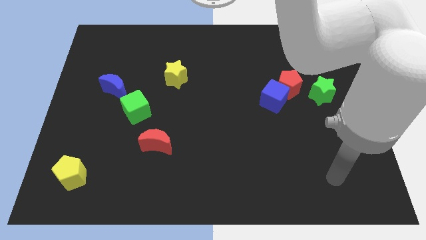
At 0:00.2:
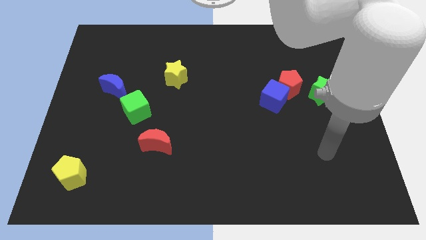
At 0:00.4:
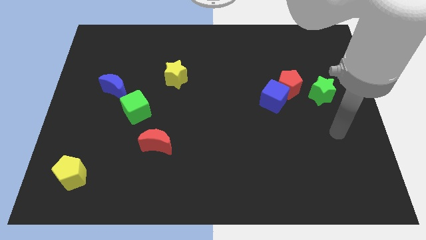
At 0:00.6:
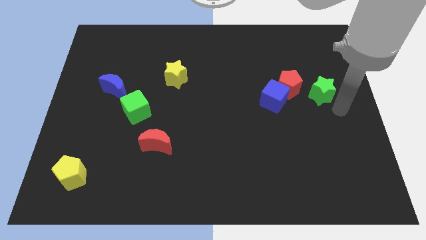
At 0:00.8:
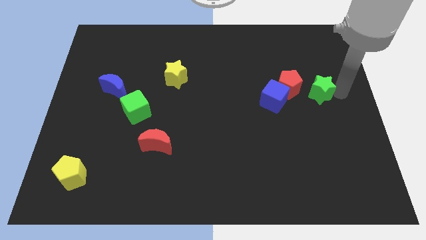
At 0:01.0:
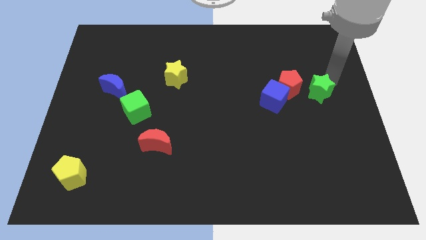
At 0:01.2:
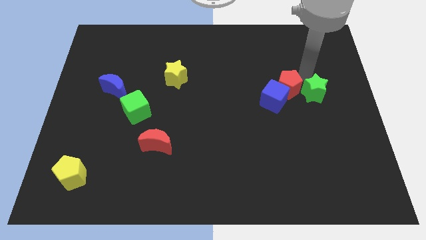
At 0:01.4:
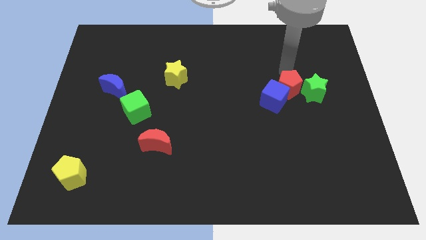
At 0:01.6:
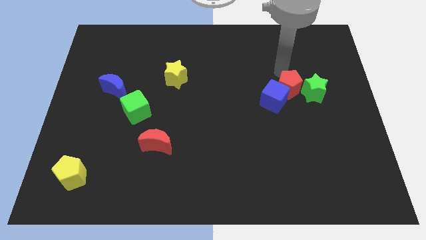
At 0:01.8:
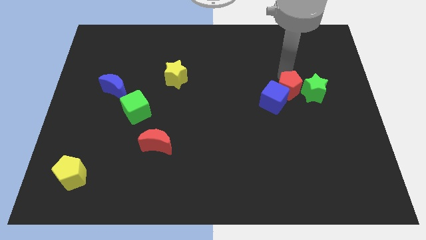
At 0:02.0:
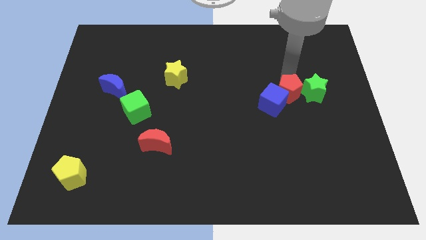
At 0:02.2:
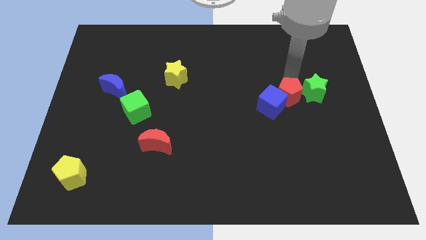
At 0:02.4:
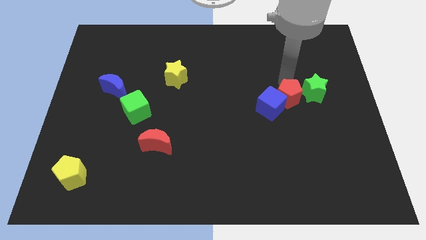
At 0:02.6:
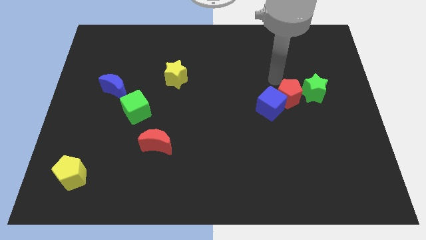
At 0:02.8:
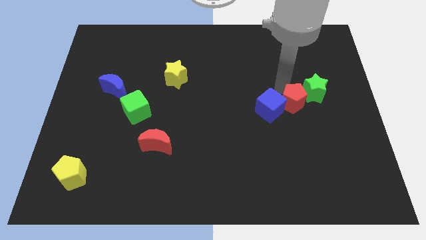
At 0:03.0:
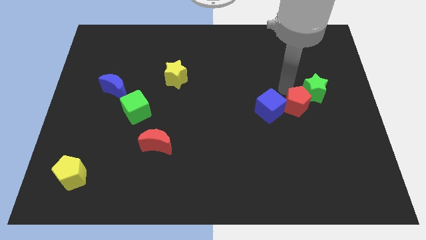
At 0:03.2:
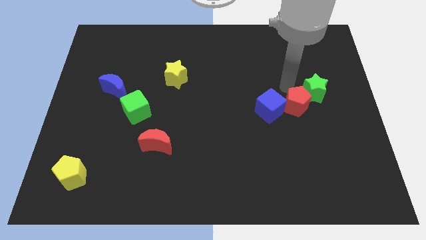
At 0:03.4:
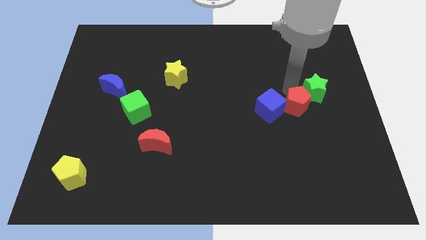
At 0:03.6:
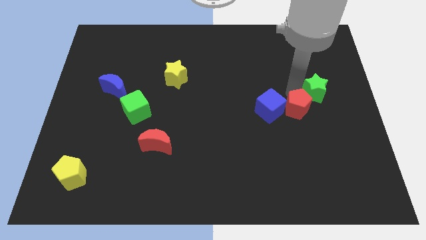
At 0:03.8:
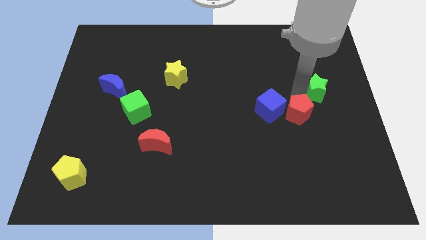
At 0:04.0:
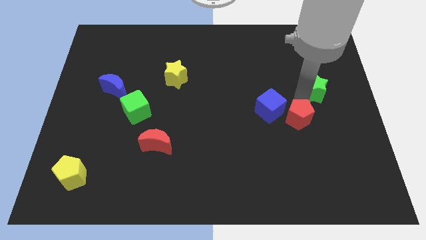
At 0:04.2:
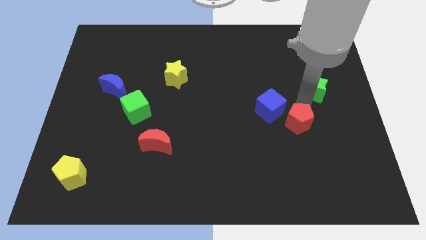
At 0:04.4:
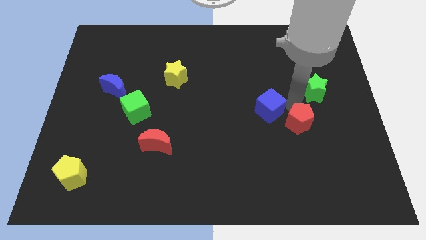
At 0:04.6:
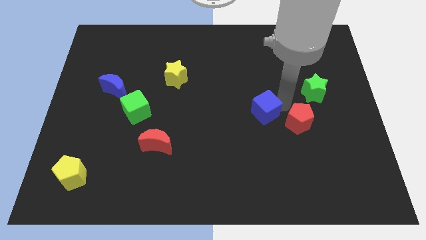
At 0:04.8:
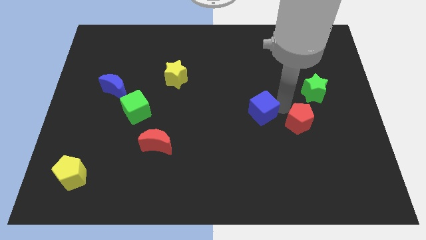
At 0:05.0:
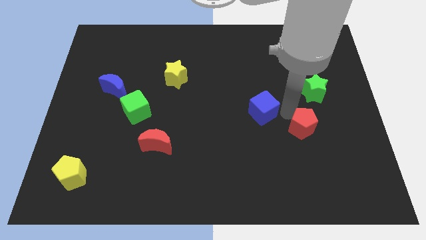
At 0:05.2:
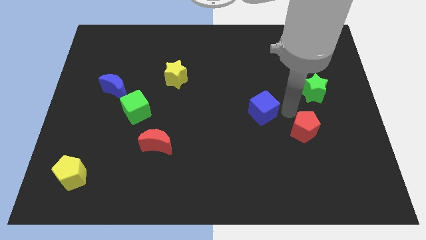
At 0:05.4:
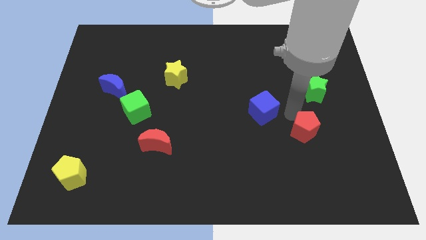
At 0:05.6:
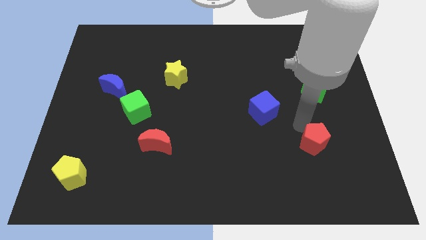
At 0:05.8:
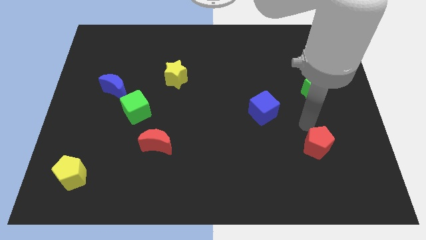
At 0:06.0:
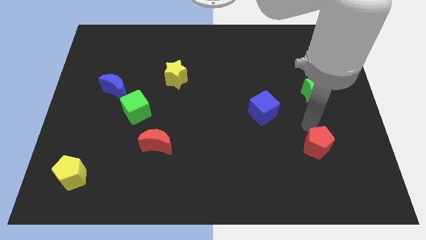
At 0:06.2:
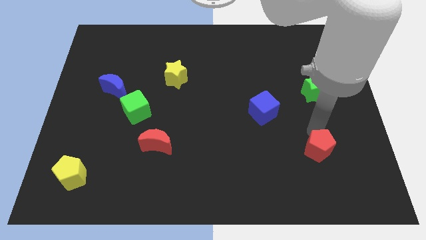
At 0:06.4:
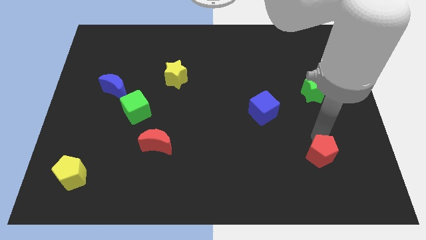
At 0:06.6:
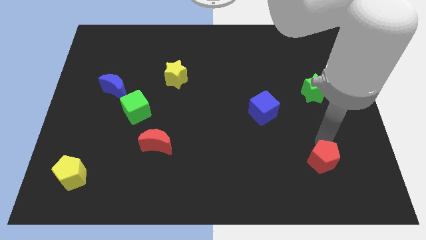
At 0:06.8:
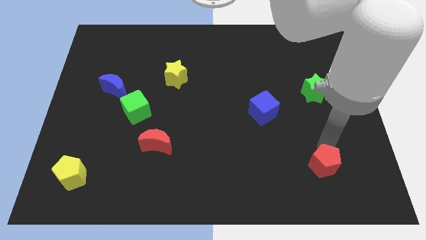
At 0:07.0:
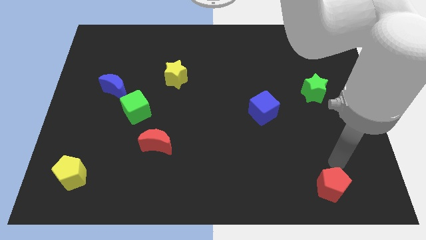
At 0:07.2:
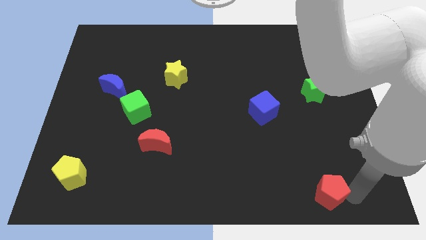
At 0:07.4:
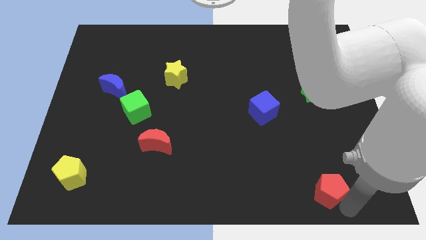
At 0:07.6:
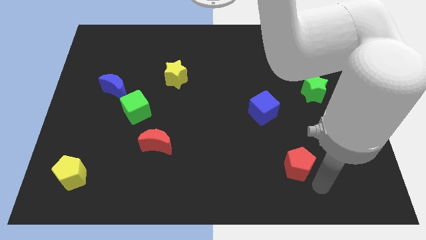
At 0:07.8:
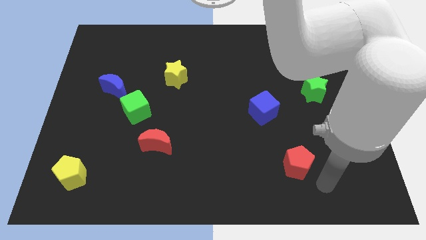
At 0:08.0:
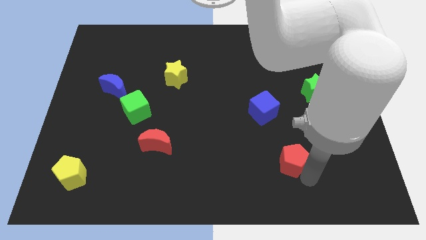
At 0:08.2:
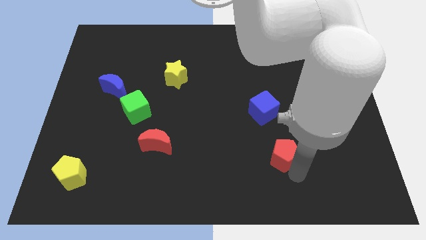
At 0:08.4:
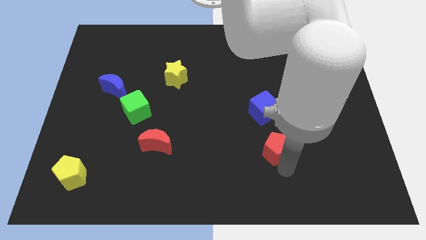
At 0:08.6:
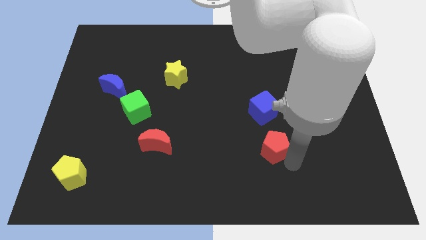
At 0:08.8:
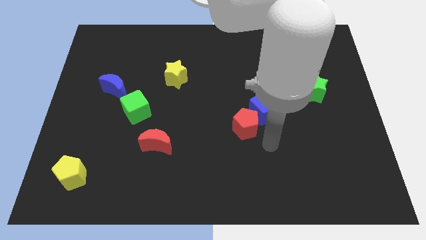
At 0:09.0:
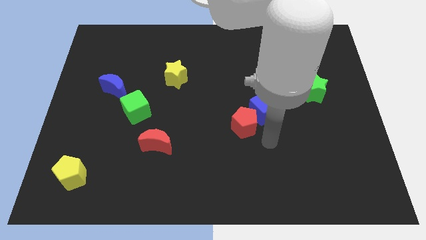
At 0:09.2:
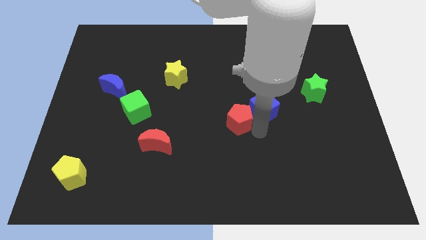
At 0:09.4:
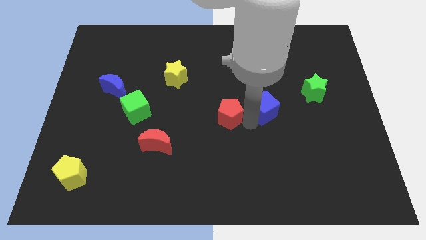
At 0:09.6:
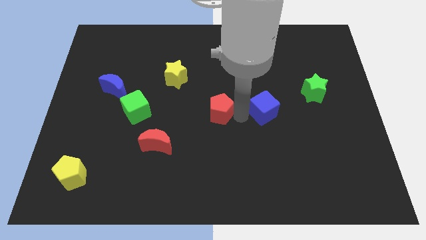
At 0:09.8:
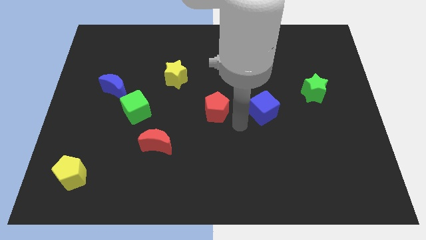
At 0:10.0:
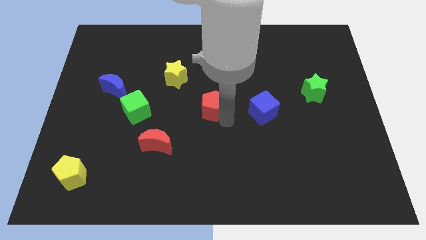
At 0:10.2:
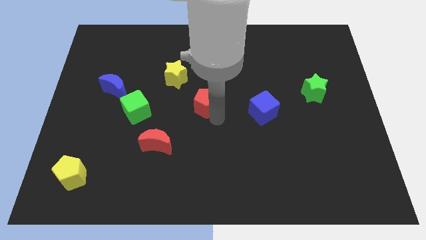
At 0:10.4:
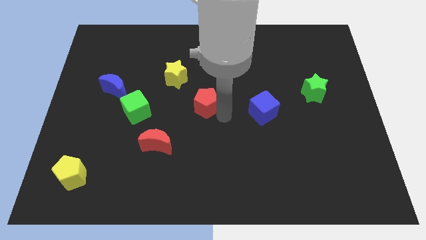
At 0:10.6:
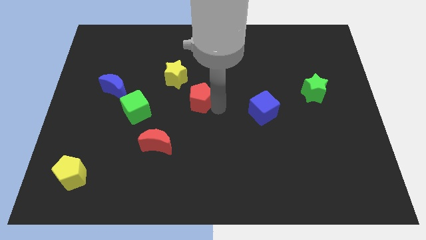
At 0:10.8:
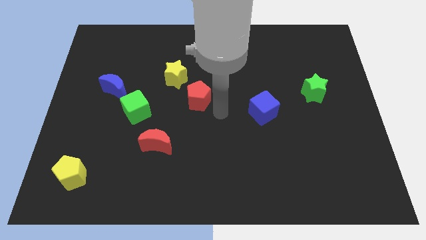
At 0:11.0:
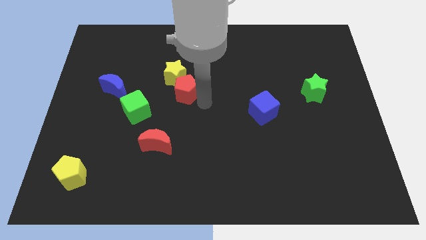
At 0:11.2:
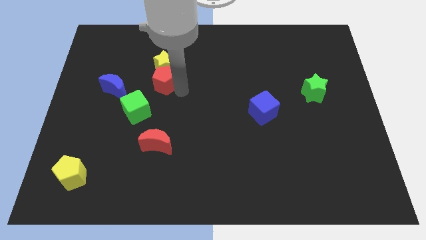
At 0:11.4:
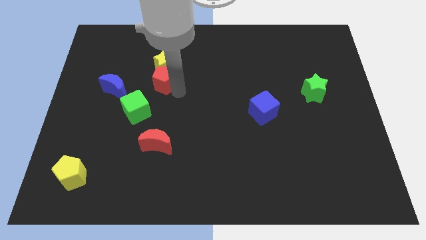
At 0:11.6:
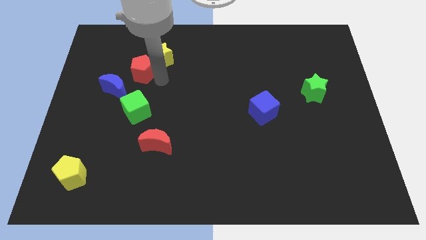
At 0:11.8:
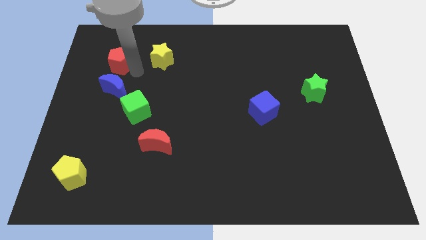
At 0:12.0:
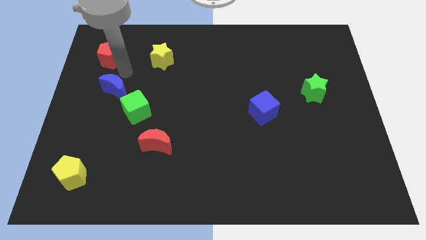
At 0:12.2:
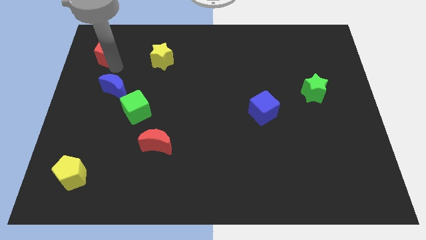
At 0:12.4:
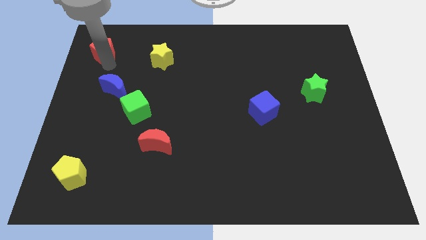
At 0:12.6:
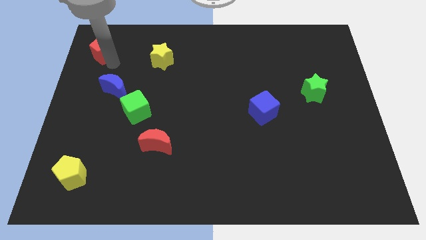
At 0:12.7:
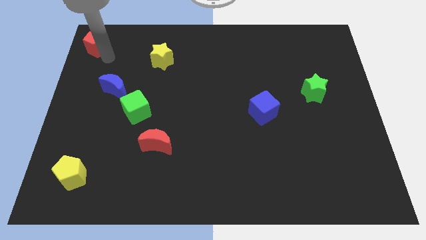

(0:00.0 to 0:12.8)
slide the red pentagon to the top left
